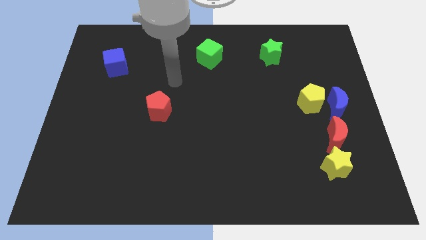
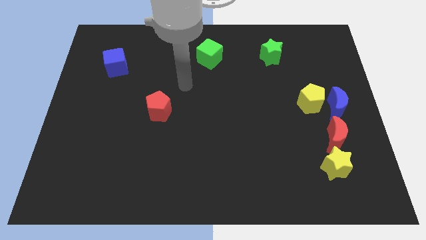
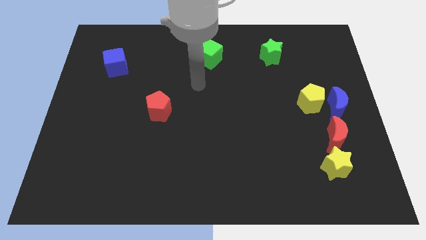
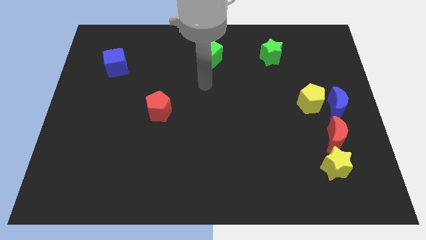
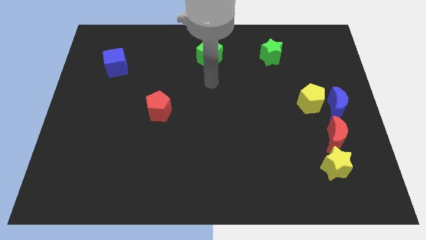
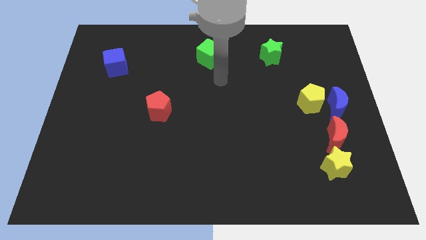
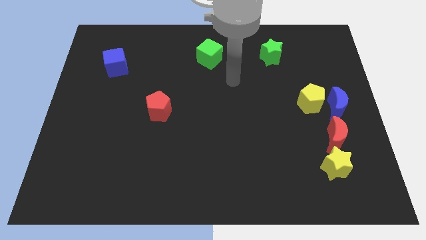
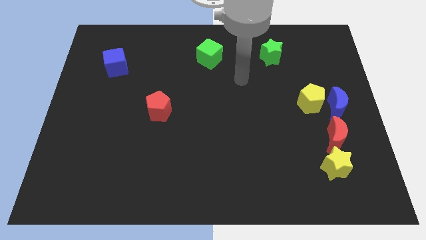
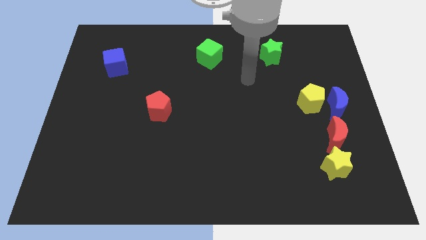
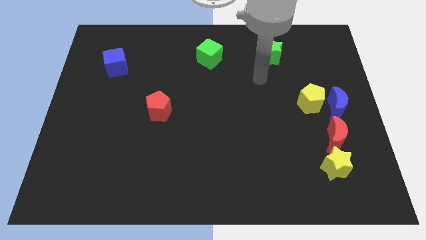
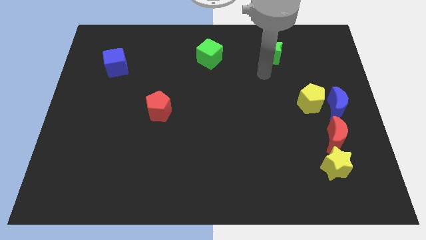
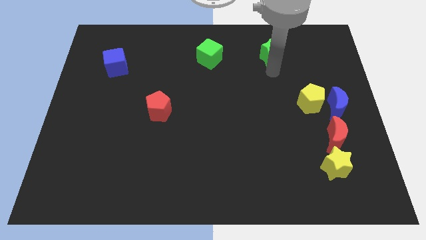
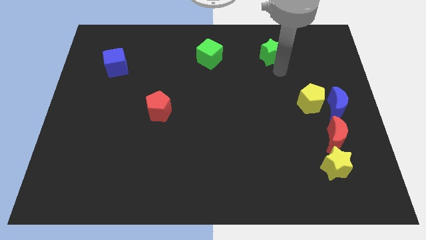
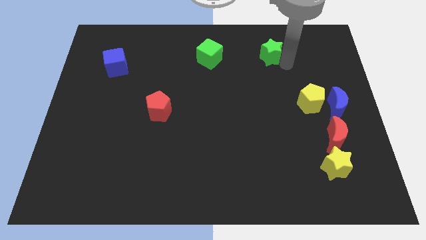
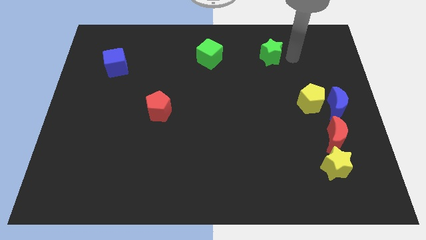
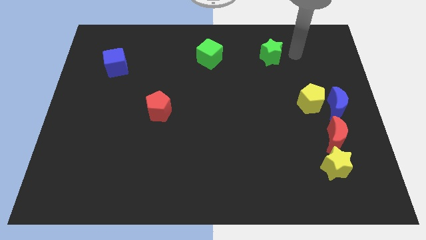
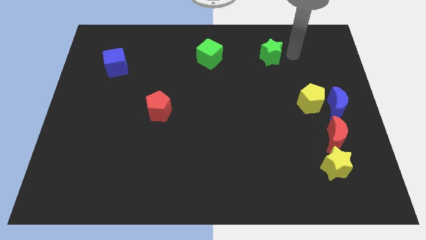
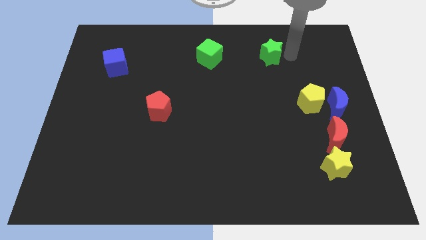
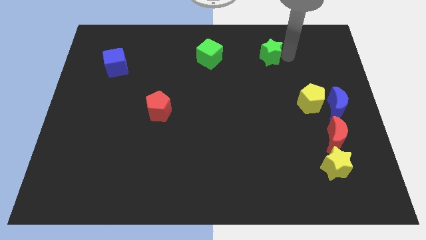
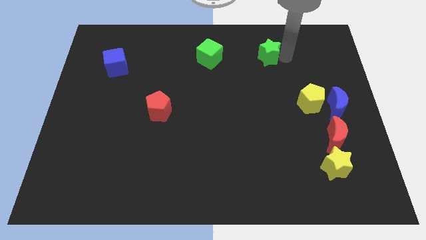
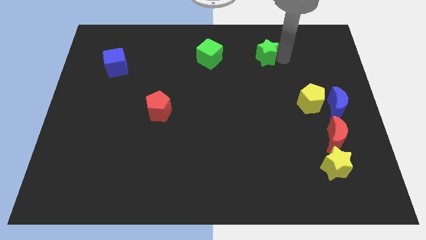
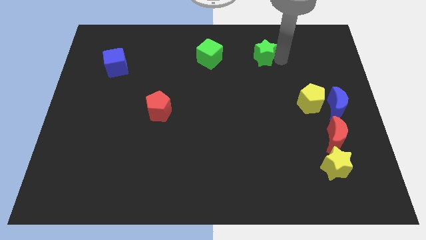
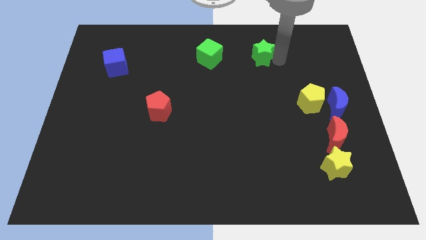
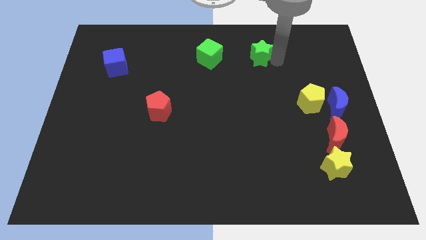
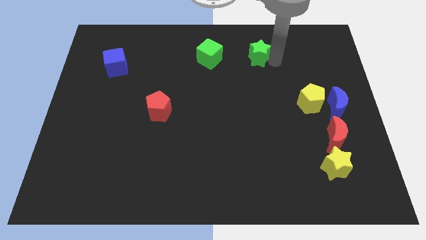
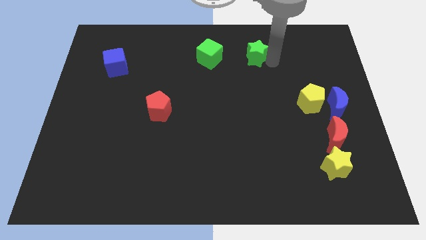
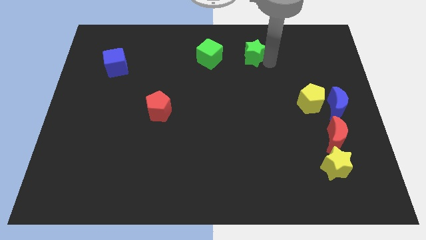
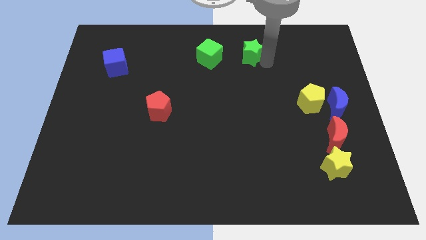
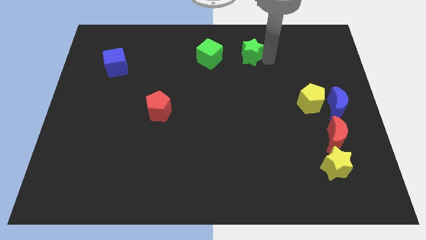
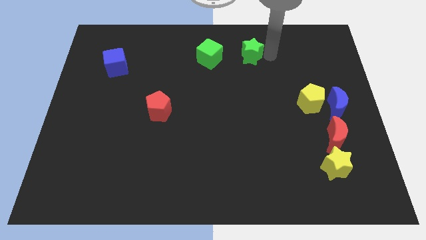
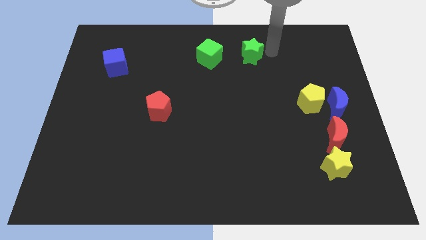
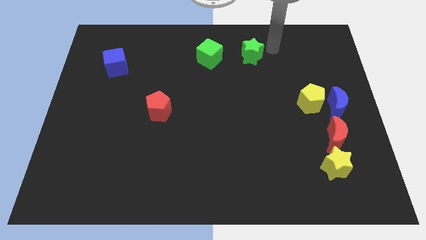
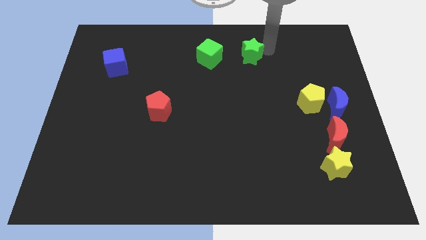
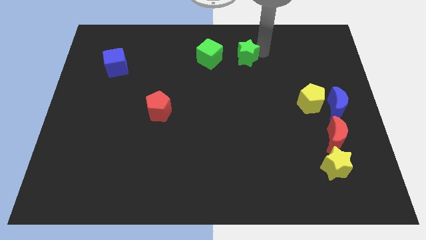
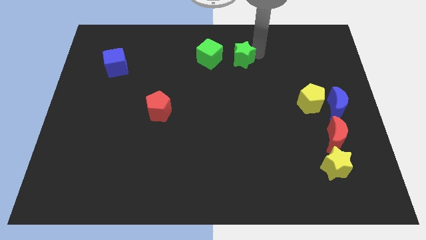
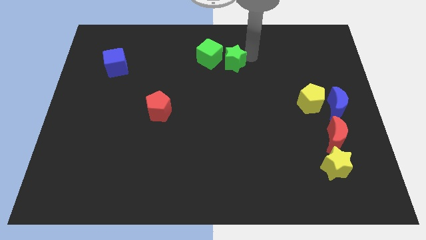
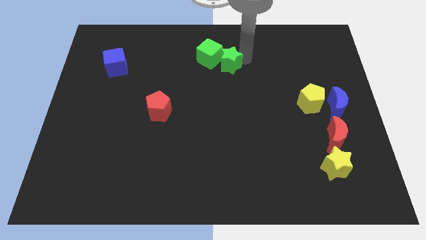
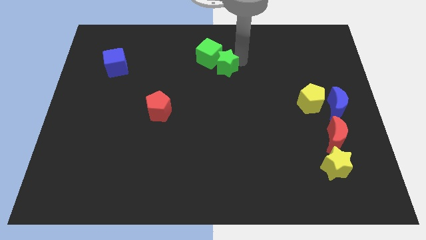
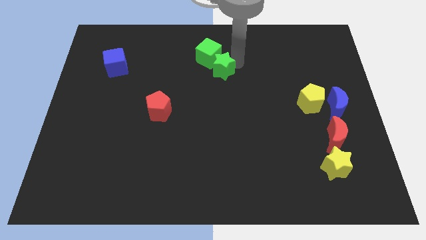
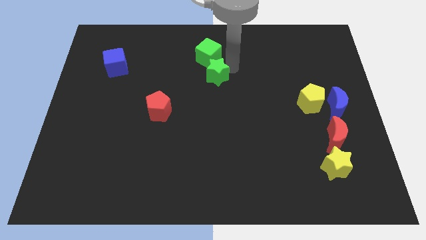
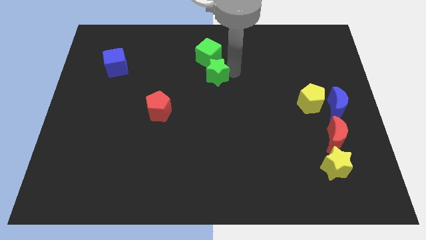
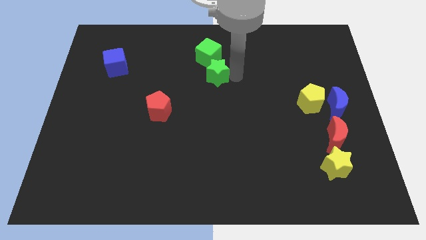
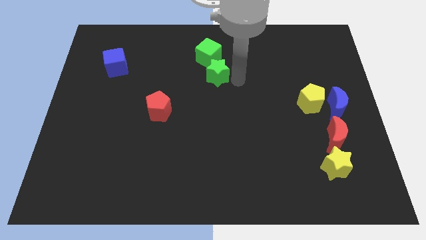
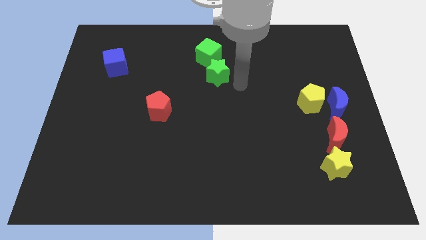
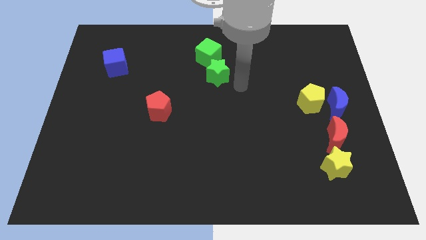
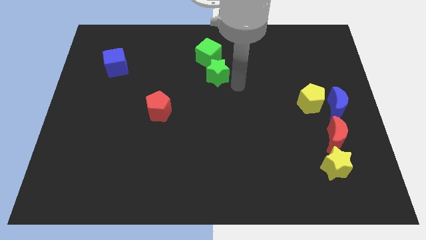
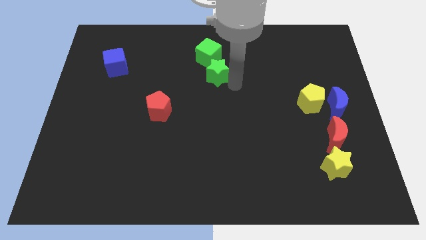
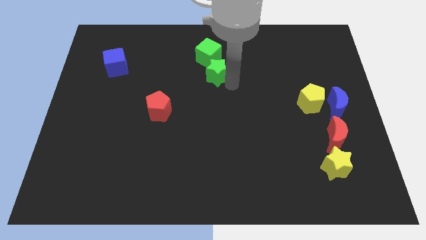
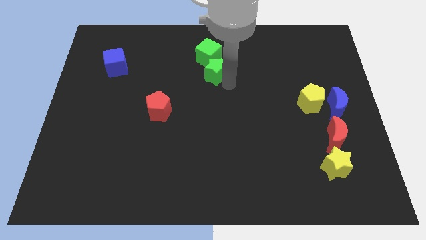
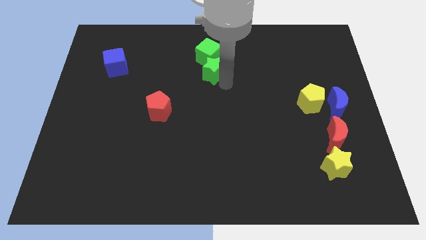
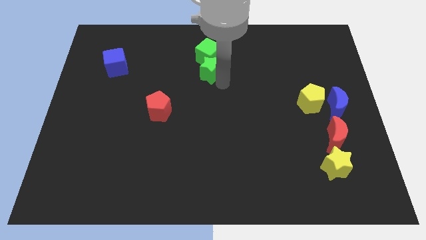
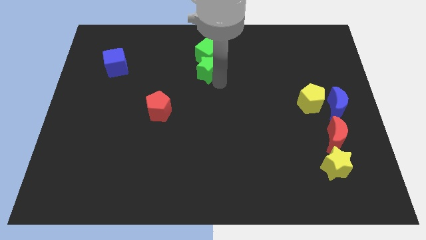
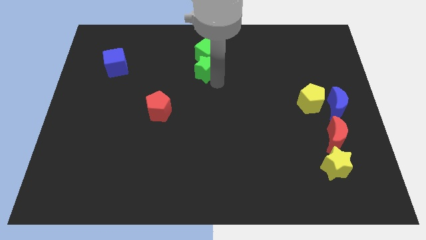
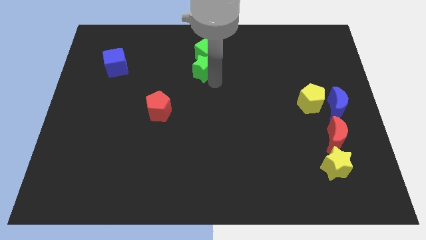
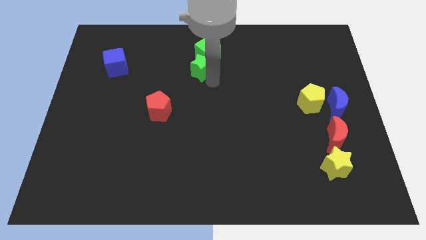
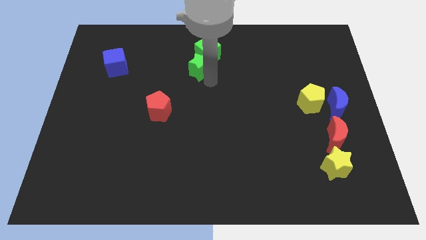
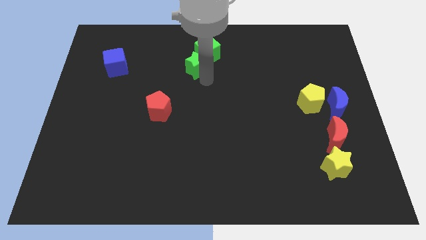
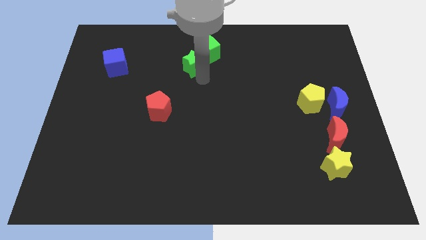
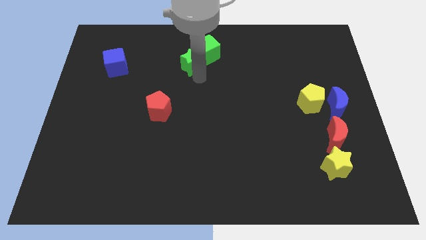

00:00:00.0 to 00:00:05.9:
push the green star to the left of the green cube

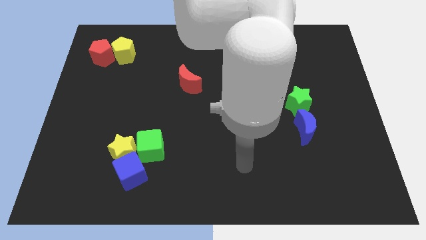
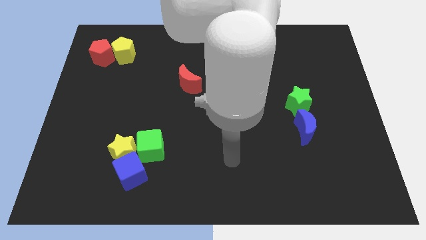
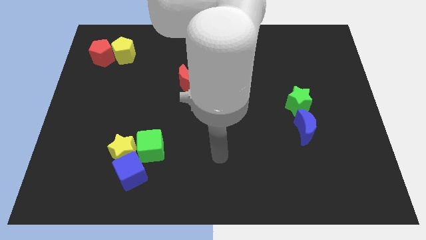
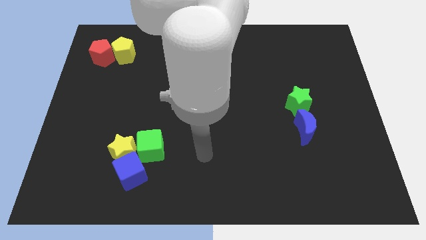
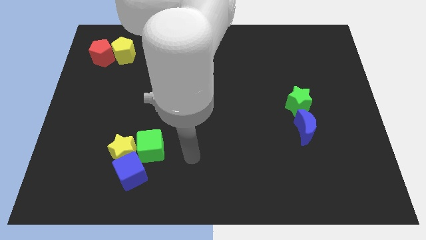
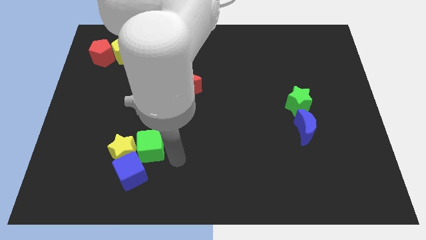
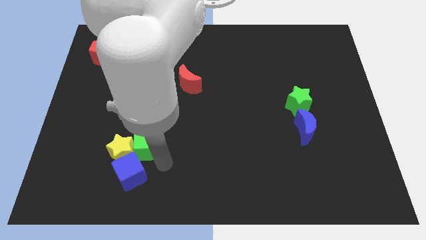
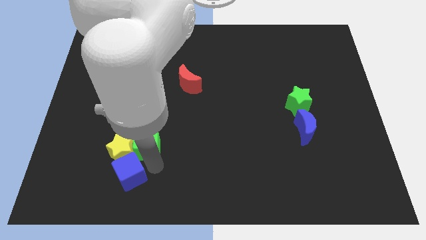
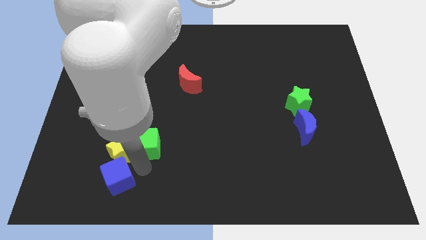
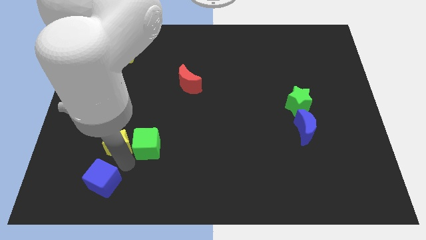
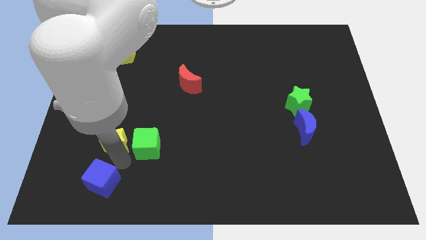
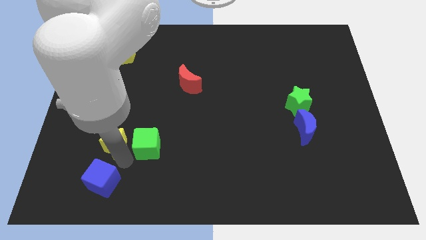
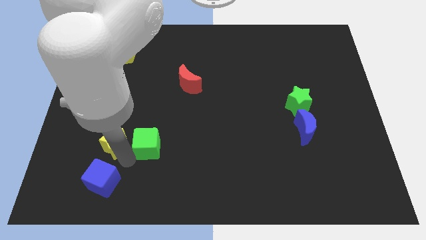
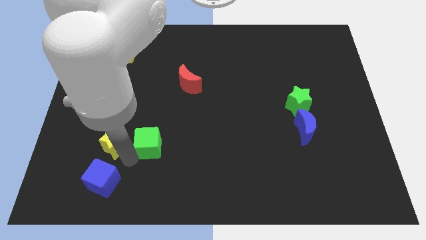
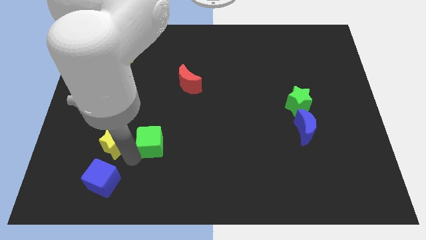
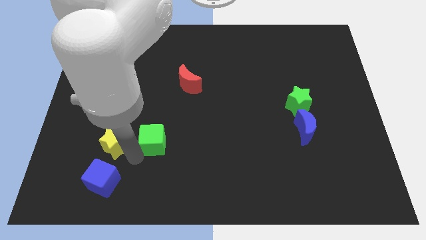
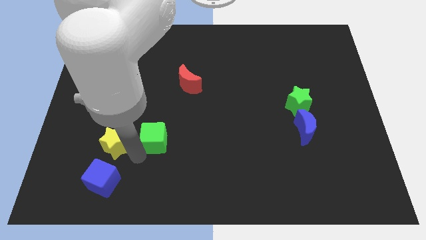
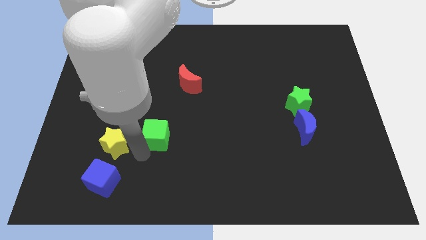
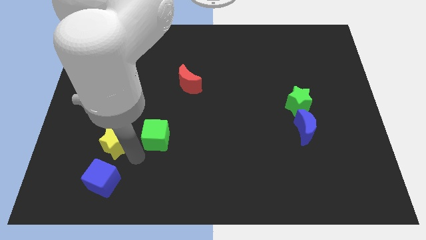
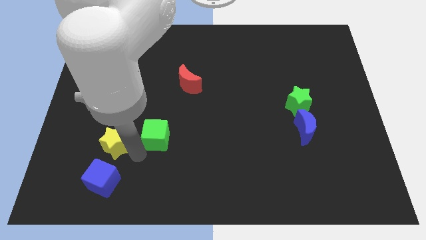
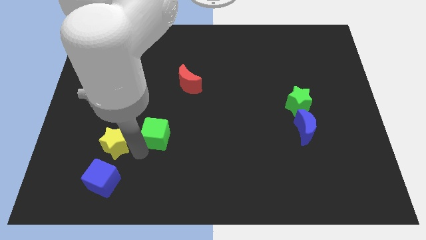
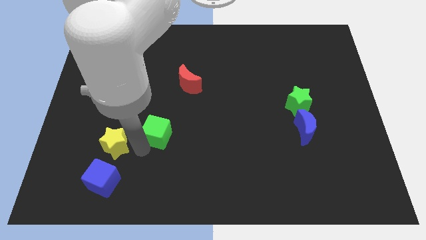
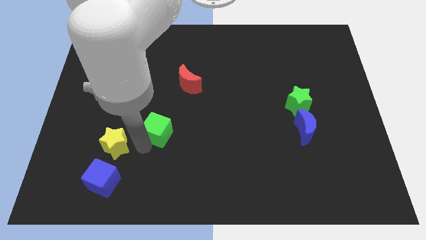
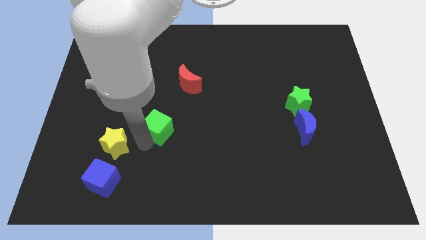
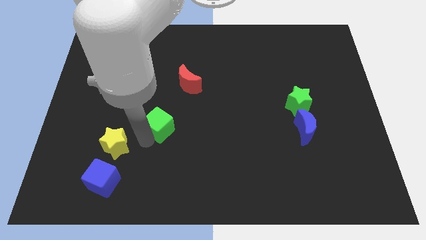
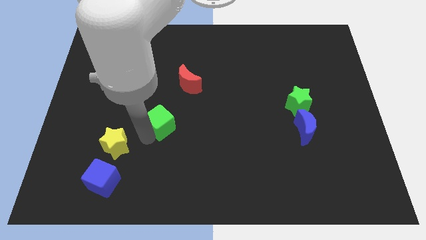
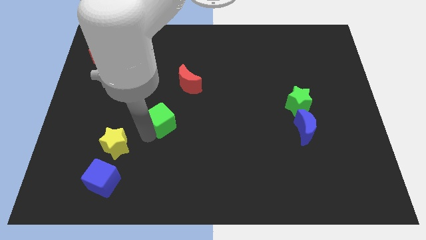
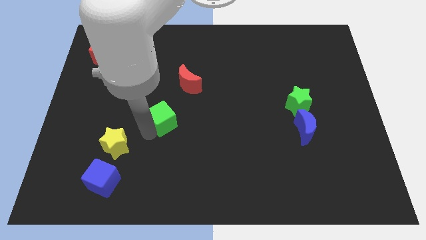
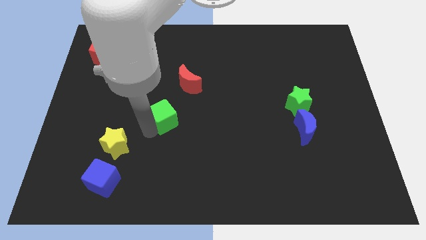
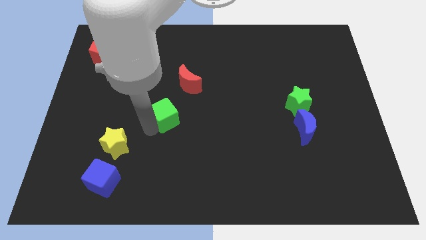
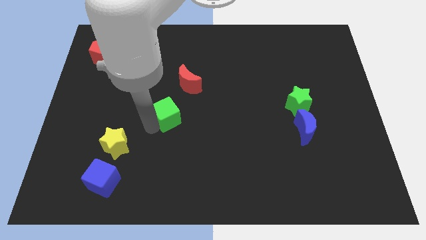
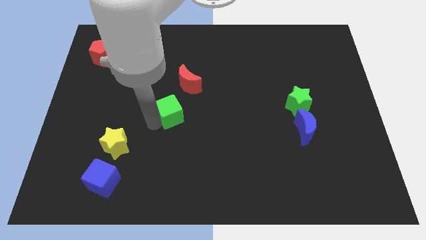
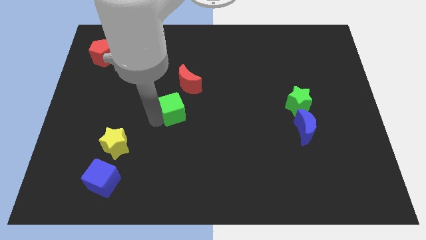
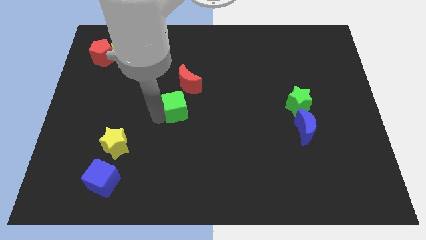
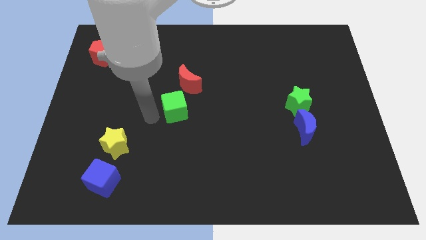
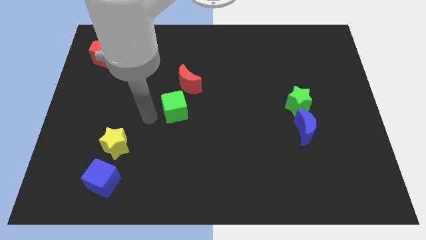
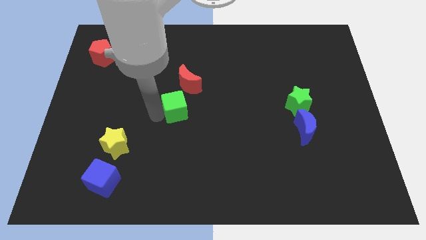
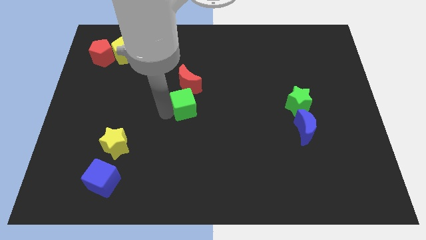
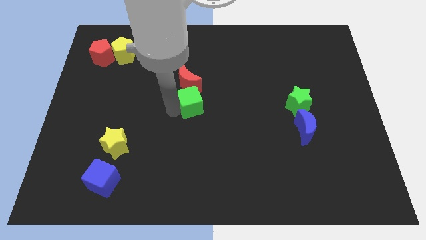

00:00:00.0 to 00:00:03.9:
slide the green cube diagonally down and to the right of the red moon
